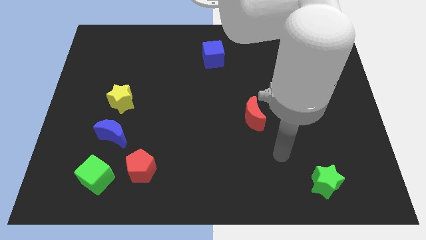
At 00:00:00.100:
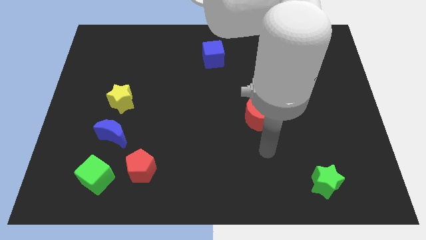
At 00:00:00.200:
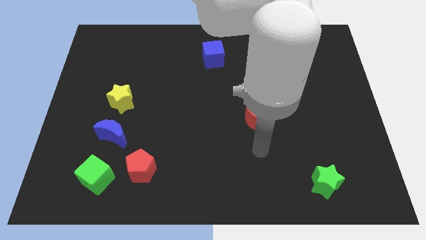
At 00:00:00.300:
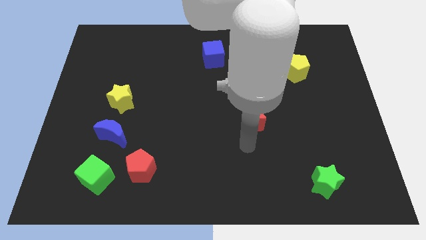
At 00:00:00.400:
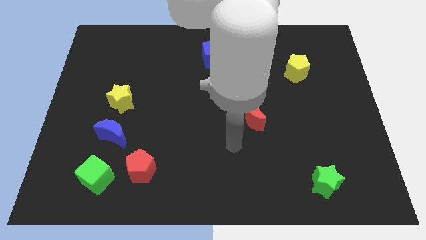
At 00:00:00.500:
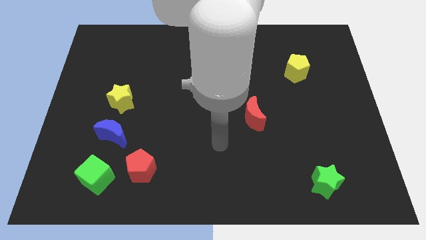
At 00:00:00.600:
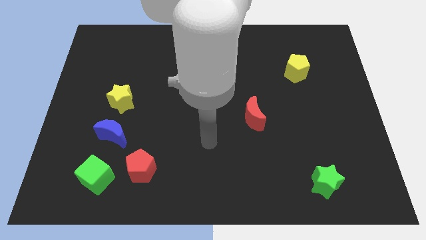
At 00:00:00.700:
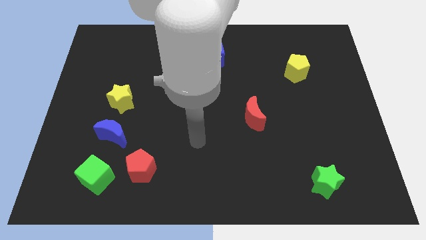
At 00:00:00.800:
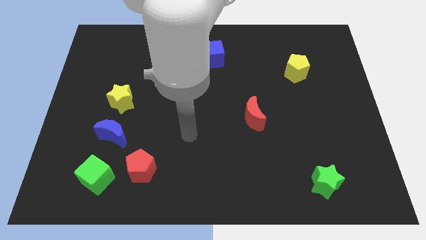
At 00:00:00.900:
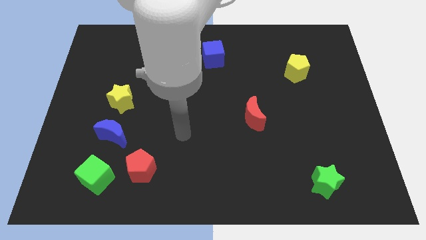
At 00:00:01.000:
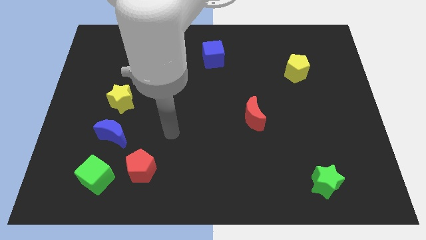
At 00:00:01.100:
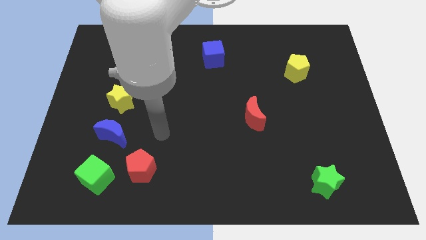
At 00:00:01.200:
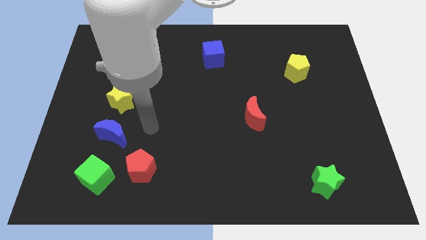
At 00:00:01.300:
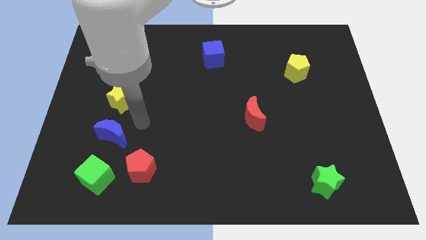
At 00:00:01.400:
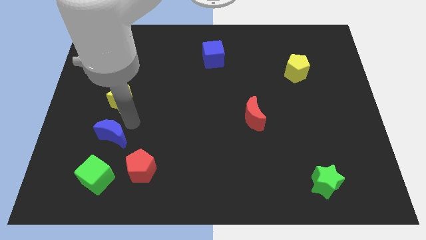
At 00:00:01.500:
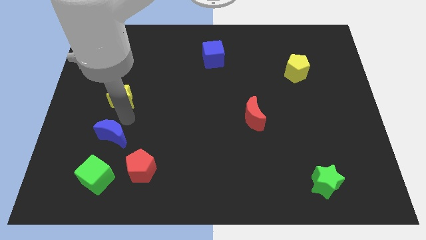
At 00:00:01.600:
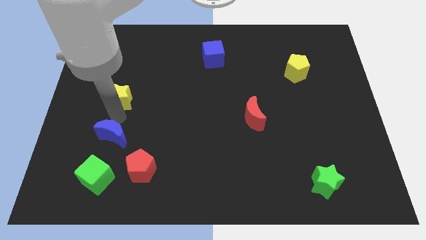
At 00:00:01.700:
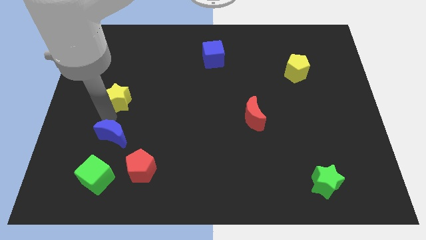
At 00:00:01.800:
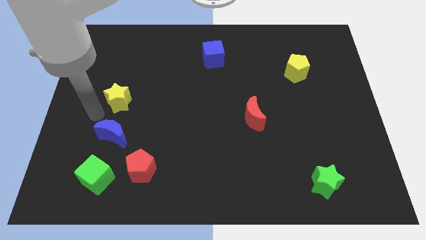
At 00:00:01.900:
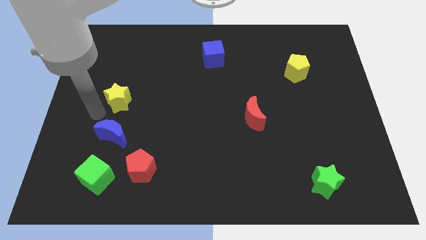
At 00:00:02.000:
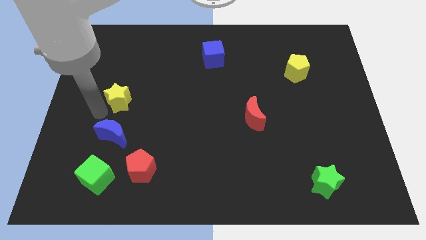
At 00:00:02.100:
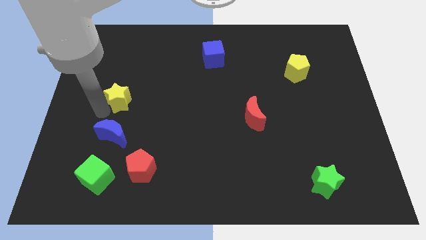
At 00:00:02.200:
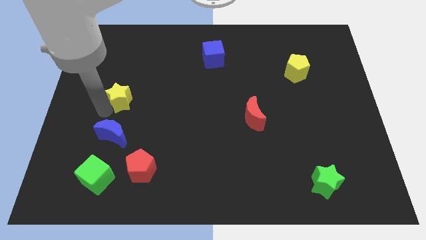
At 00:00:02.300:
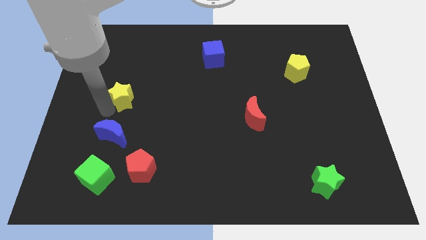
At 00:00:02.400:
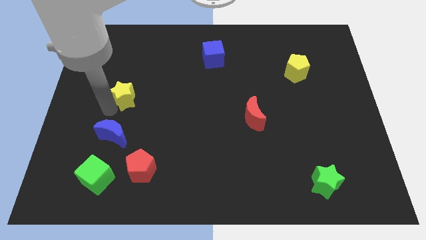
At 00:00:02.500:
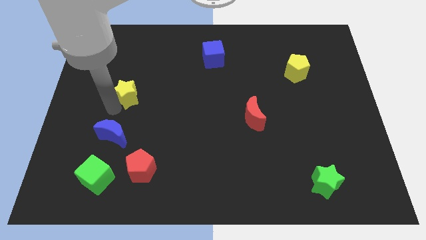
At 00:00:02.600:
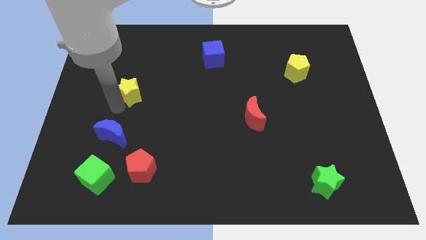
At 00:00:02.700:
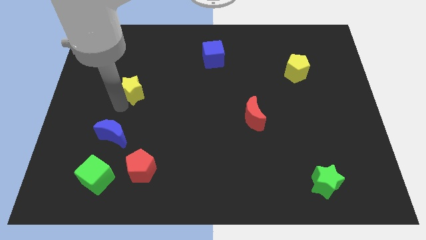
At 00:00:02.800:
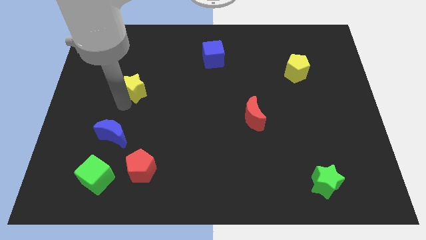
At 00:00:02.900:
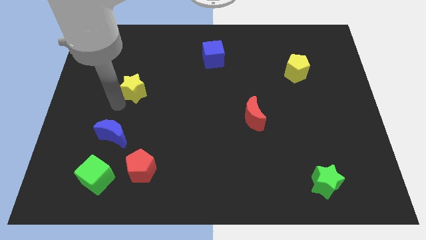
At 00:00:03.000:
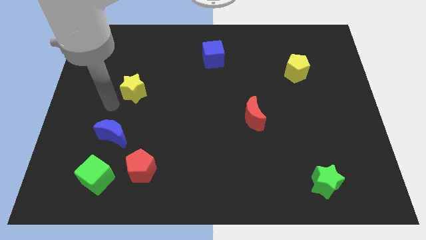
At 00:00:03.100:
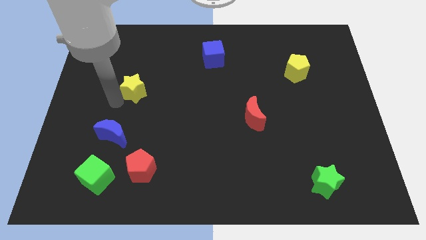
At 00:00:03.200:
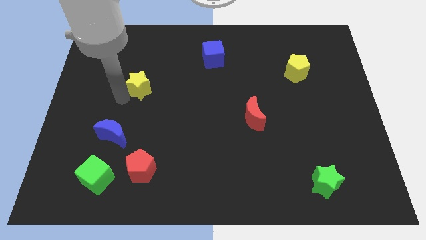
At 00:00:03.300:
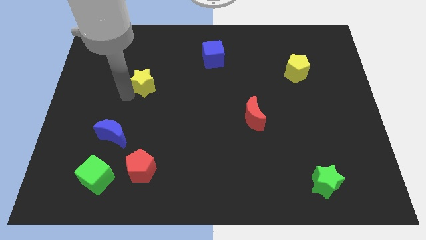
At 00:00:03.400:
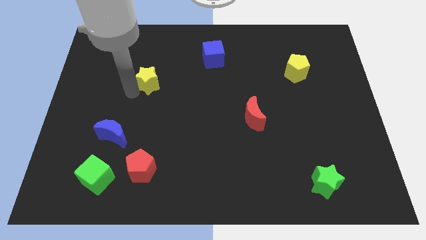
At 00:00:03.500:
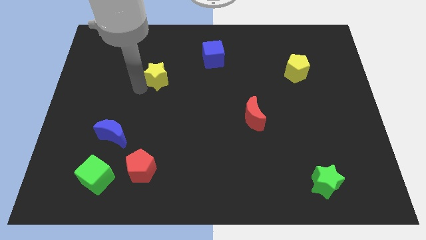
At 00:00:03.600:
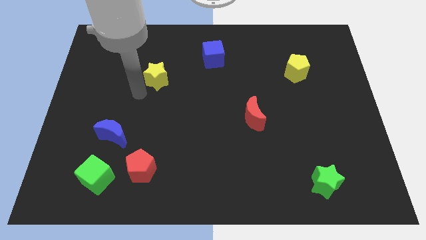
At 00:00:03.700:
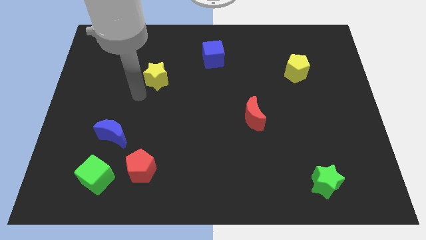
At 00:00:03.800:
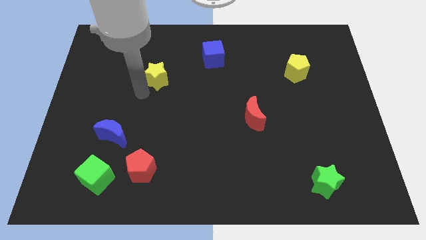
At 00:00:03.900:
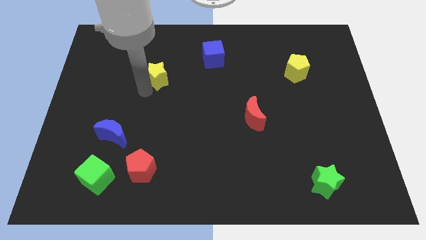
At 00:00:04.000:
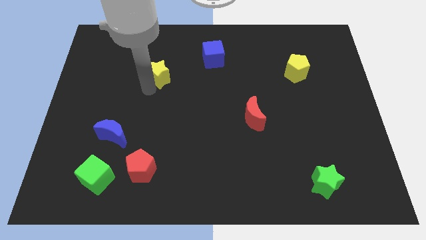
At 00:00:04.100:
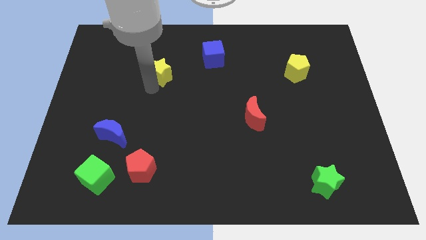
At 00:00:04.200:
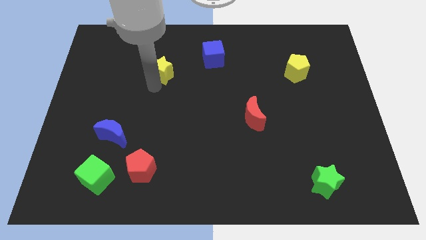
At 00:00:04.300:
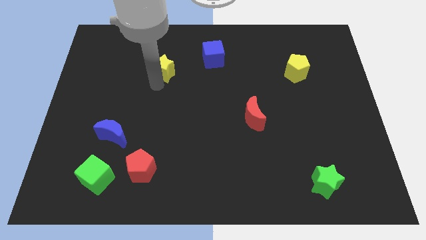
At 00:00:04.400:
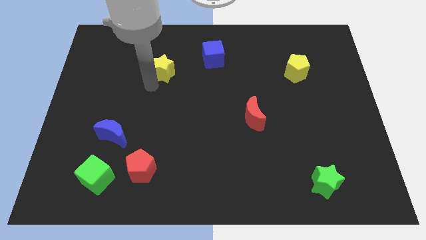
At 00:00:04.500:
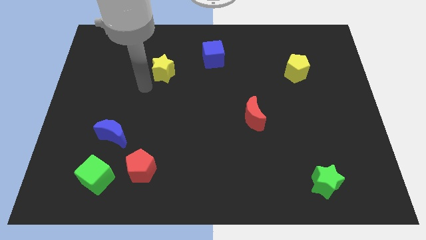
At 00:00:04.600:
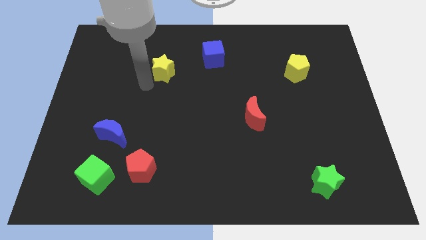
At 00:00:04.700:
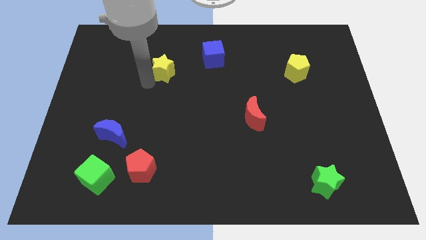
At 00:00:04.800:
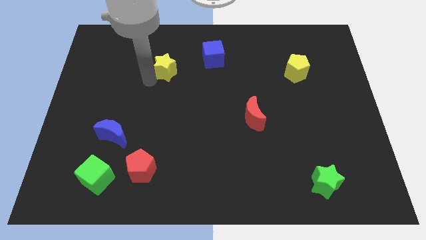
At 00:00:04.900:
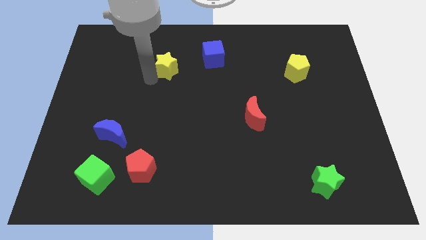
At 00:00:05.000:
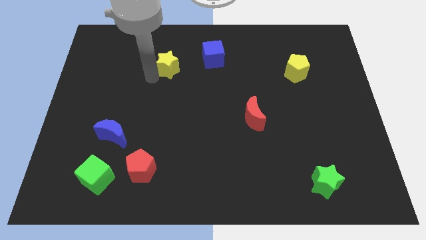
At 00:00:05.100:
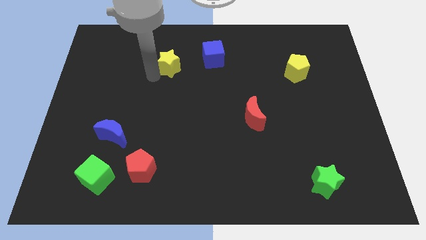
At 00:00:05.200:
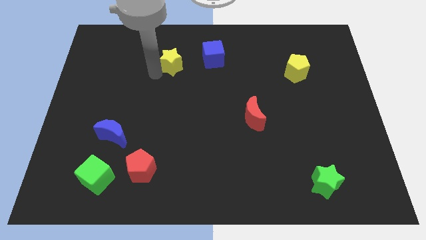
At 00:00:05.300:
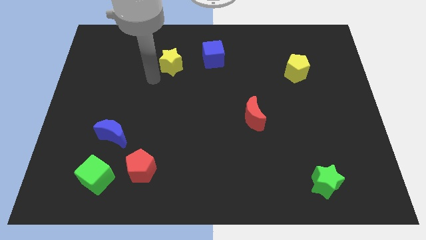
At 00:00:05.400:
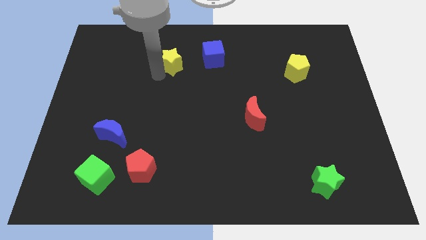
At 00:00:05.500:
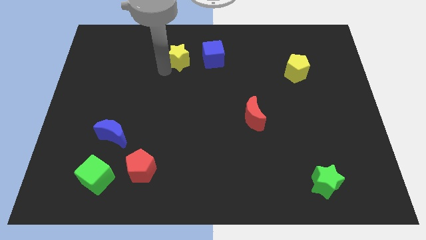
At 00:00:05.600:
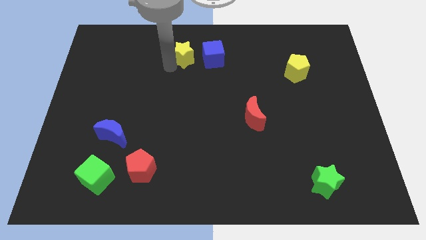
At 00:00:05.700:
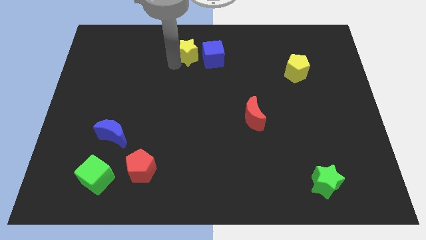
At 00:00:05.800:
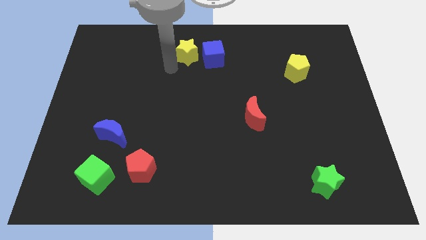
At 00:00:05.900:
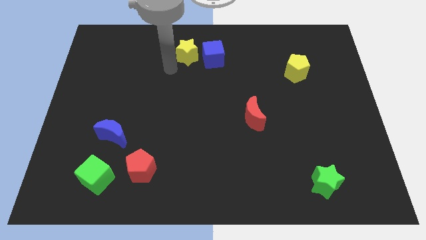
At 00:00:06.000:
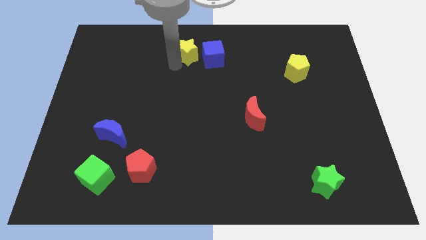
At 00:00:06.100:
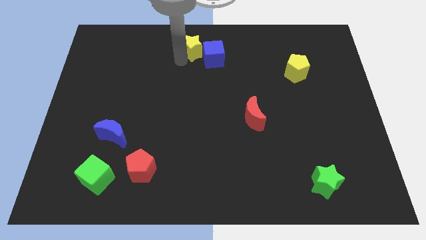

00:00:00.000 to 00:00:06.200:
slide the yellow star to the top side
